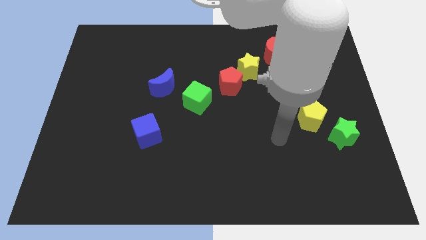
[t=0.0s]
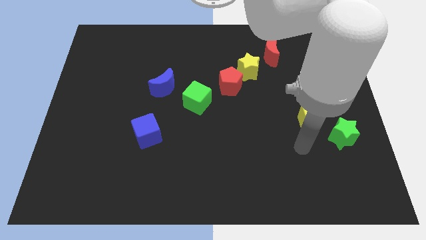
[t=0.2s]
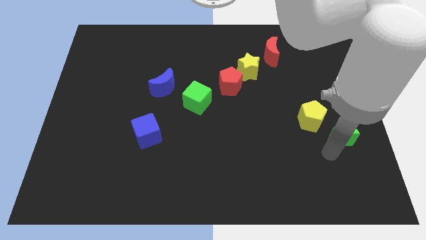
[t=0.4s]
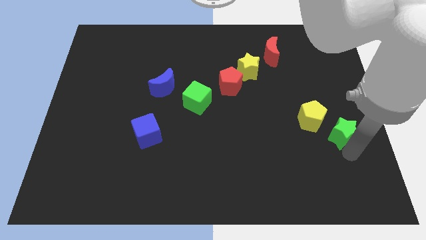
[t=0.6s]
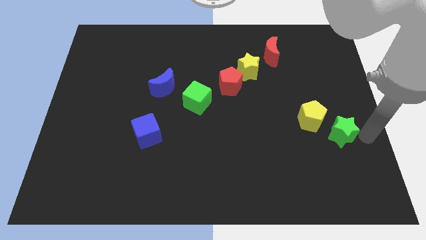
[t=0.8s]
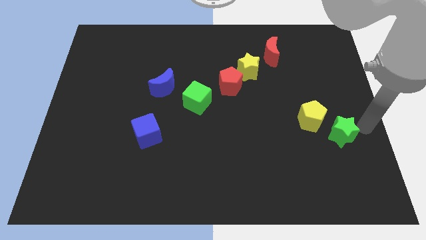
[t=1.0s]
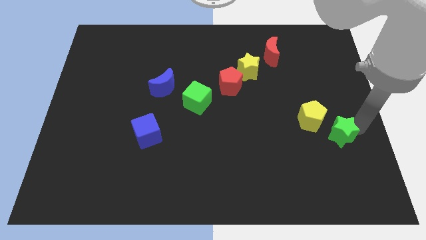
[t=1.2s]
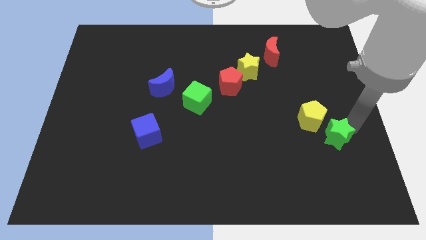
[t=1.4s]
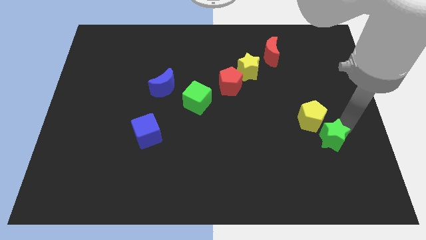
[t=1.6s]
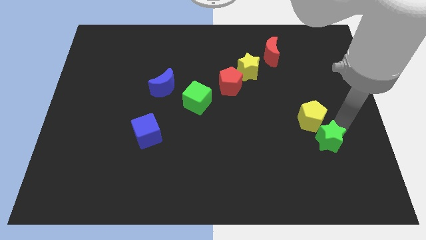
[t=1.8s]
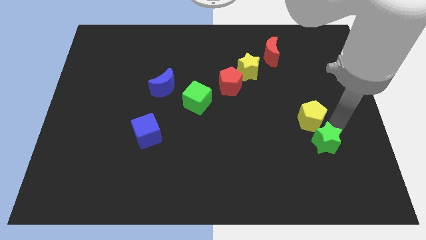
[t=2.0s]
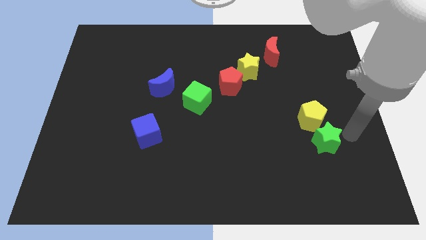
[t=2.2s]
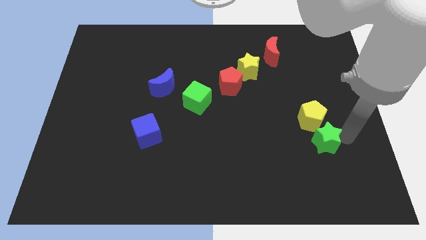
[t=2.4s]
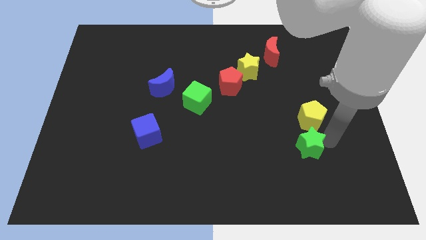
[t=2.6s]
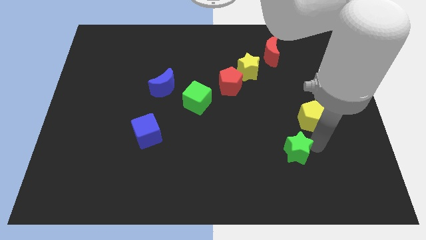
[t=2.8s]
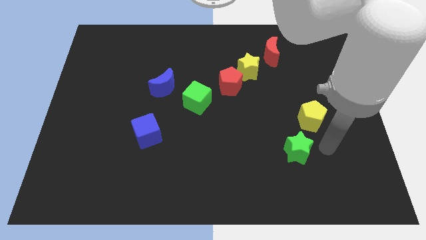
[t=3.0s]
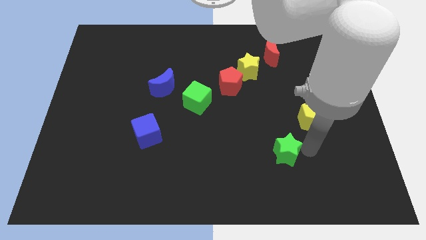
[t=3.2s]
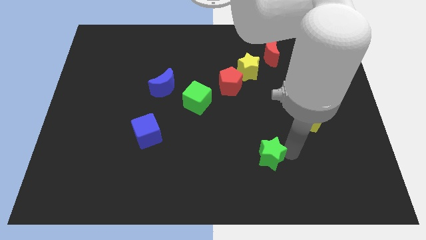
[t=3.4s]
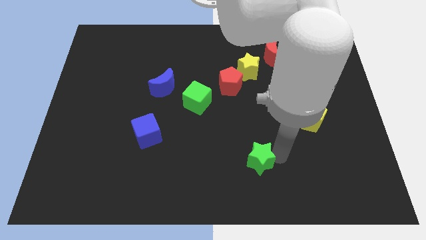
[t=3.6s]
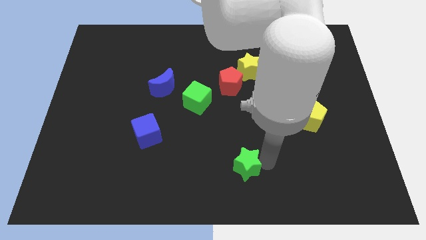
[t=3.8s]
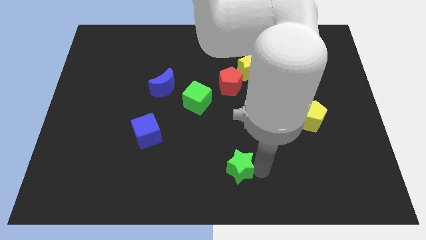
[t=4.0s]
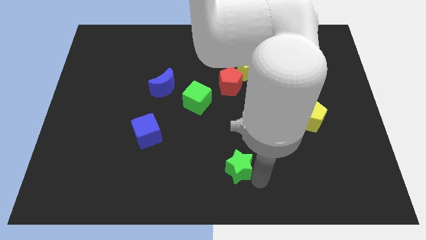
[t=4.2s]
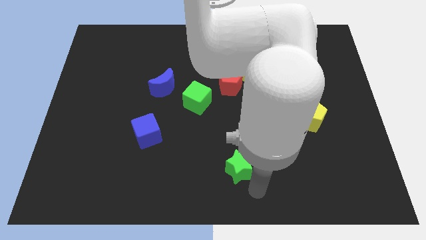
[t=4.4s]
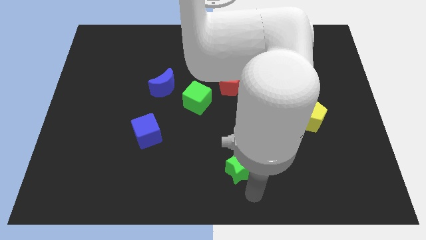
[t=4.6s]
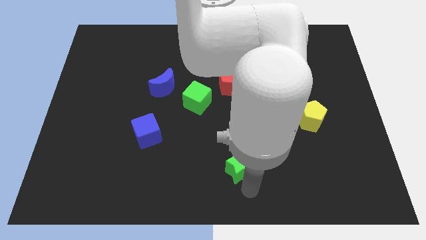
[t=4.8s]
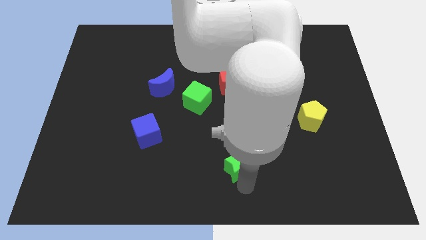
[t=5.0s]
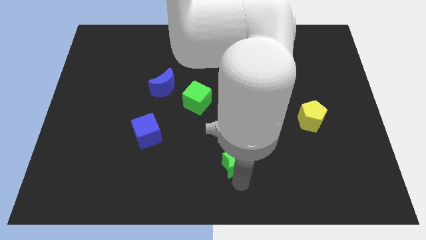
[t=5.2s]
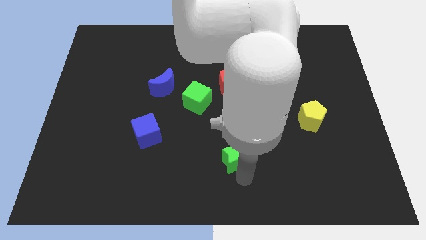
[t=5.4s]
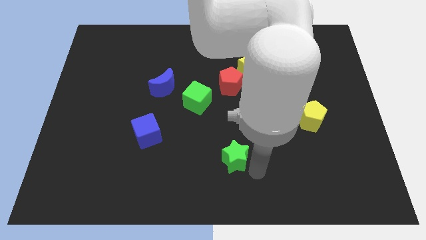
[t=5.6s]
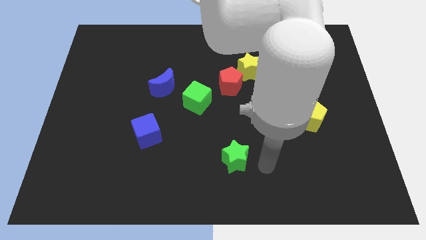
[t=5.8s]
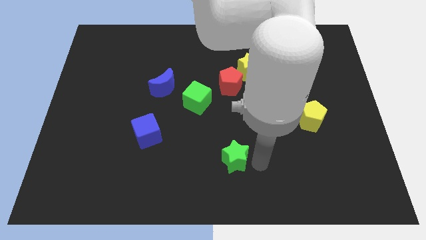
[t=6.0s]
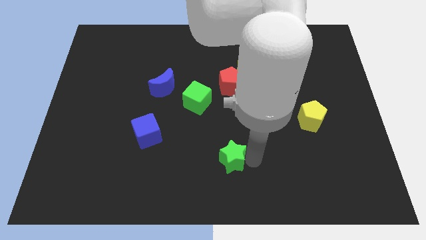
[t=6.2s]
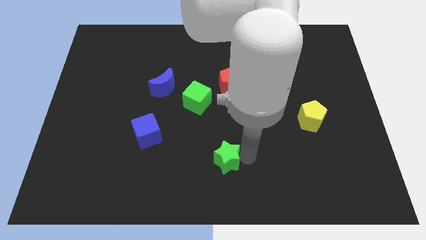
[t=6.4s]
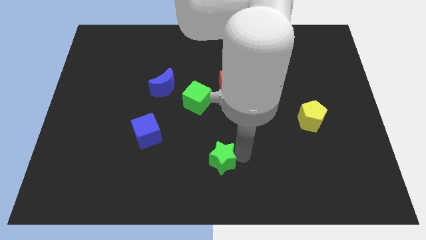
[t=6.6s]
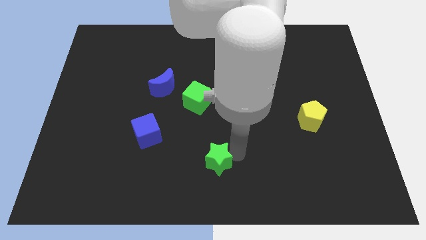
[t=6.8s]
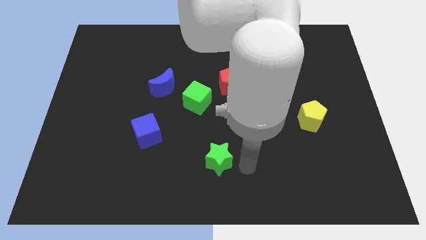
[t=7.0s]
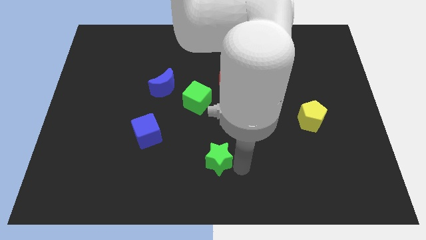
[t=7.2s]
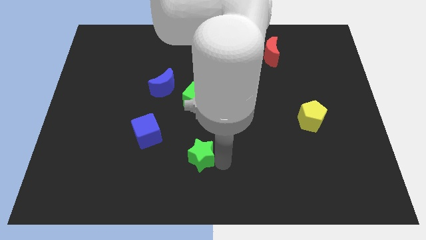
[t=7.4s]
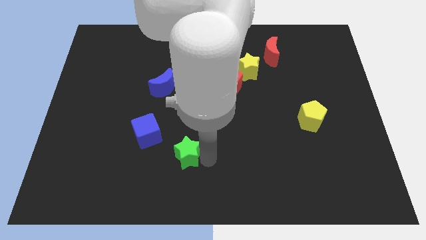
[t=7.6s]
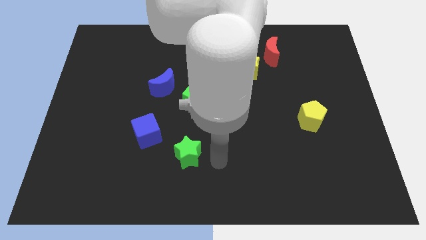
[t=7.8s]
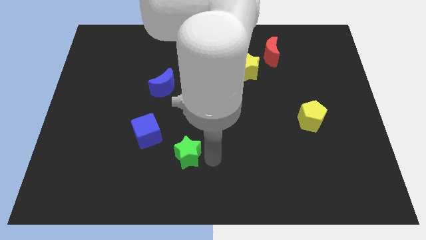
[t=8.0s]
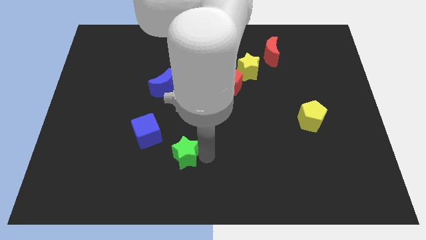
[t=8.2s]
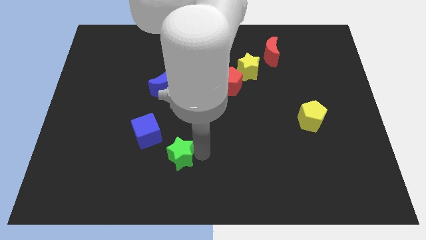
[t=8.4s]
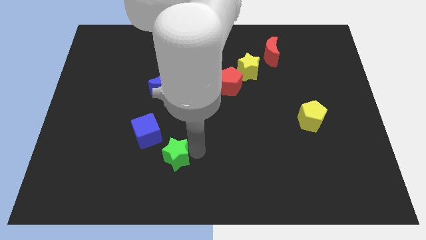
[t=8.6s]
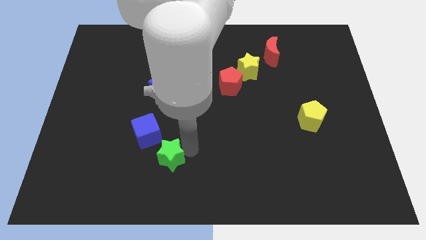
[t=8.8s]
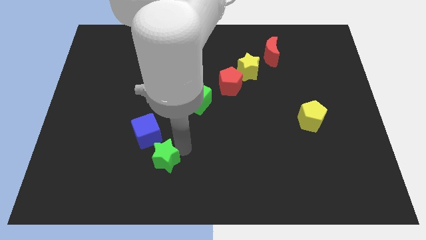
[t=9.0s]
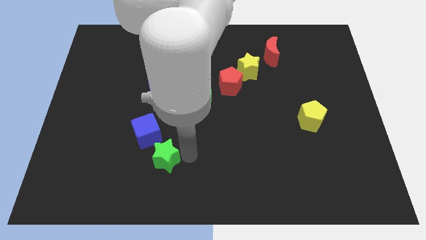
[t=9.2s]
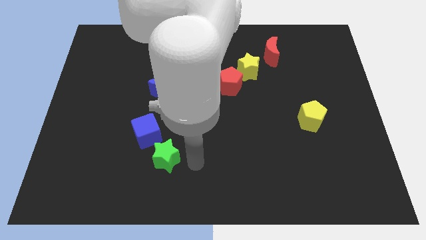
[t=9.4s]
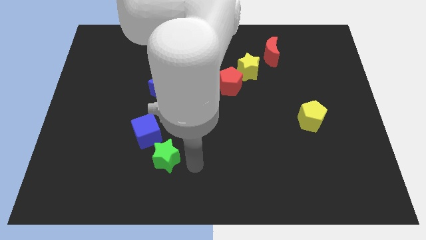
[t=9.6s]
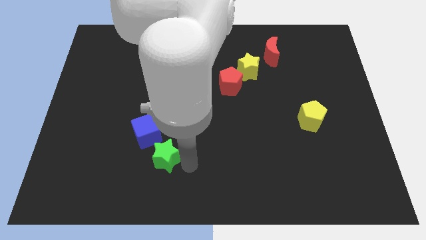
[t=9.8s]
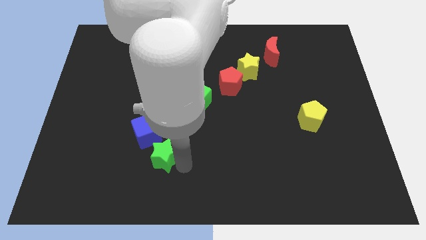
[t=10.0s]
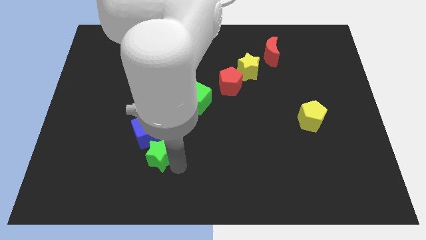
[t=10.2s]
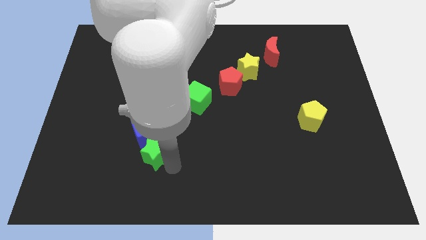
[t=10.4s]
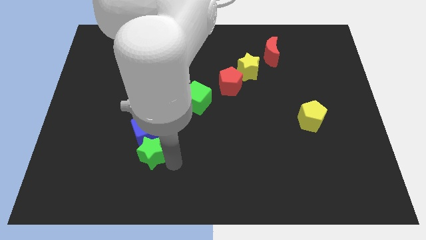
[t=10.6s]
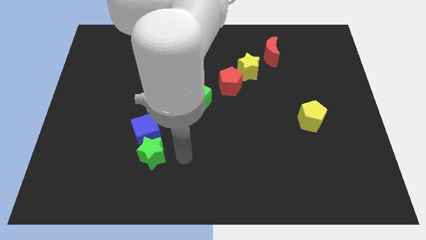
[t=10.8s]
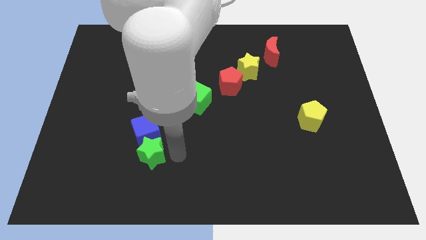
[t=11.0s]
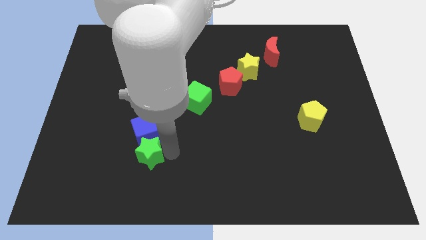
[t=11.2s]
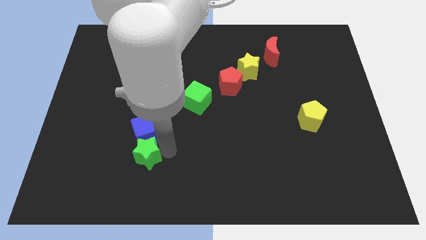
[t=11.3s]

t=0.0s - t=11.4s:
slide the green star diagonally down and to the left of the blue cube

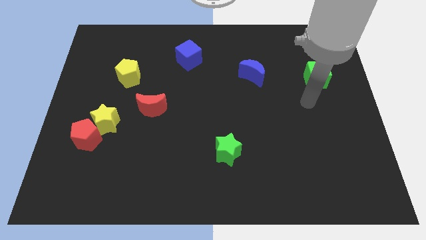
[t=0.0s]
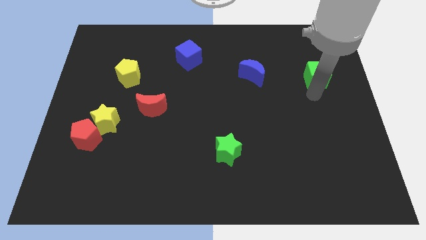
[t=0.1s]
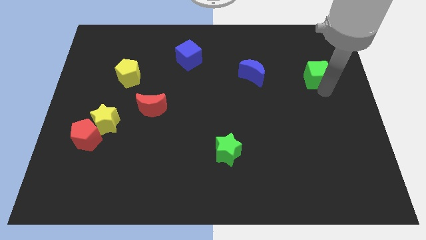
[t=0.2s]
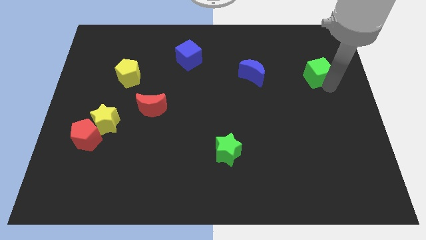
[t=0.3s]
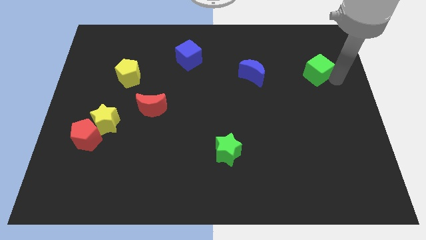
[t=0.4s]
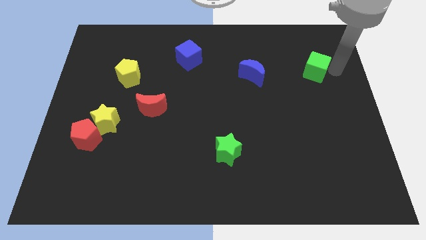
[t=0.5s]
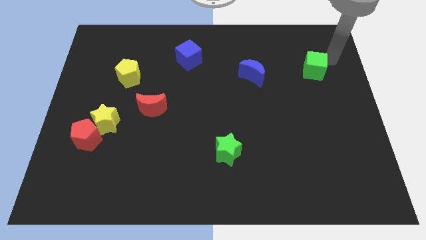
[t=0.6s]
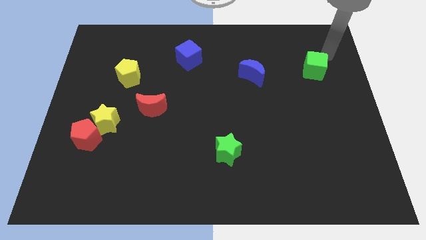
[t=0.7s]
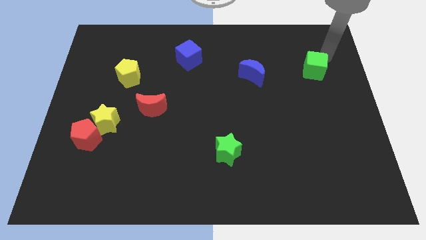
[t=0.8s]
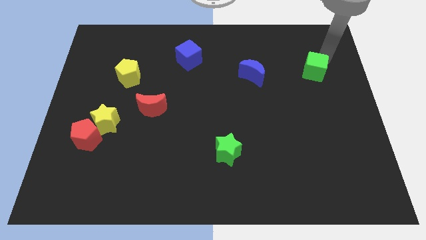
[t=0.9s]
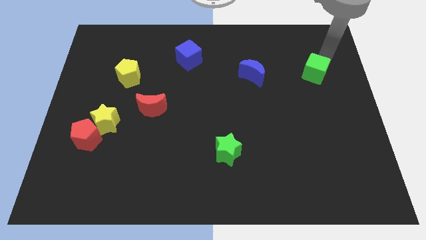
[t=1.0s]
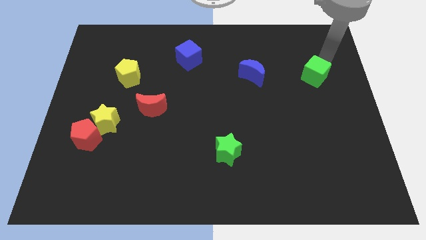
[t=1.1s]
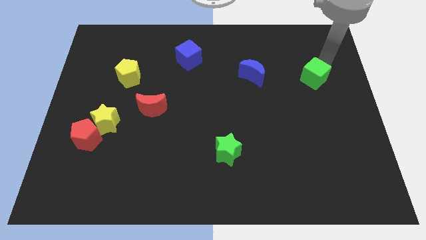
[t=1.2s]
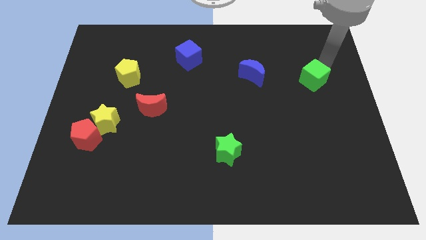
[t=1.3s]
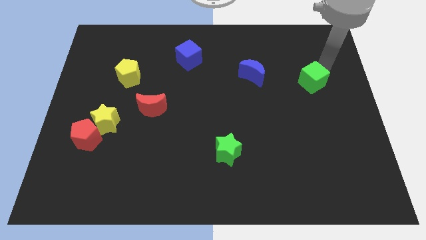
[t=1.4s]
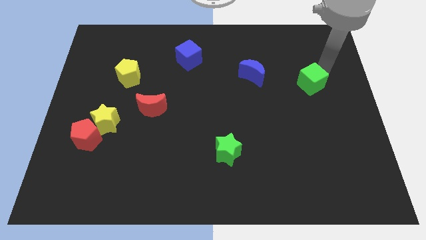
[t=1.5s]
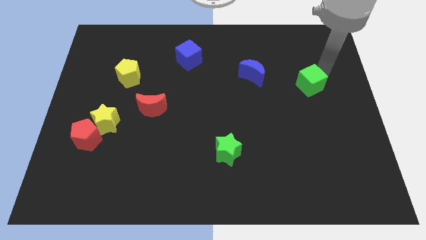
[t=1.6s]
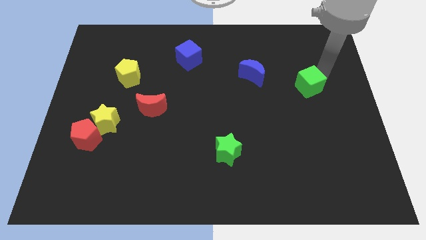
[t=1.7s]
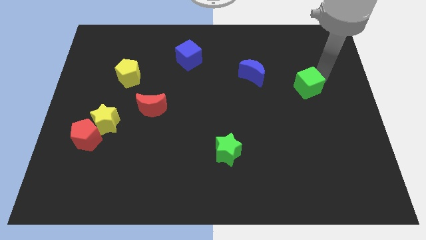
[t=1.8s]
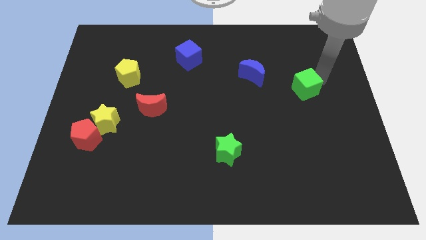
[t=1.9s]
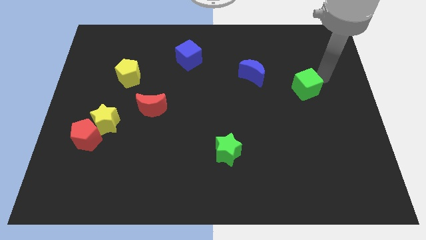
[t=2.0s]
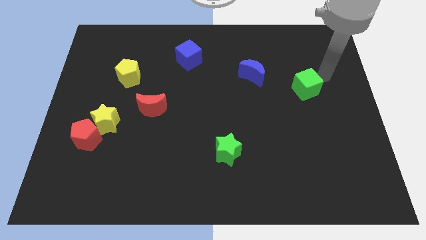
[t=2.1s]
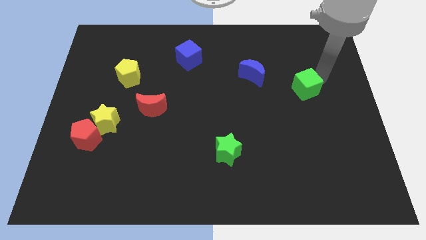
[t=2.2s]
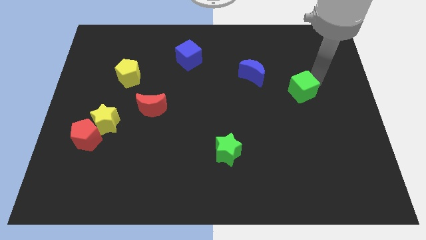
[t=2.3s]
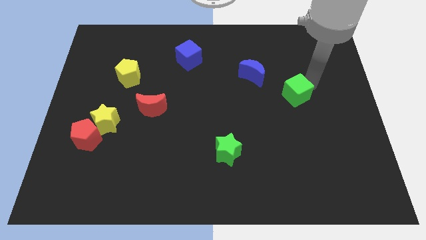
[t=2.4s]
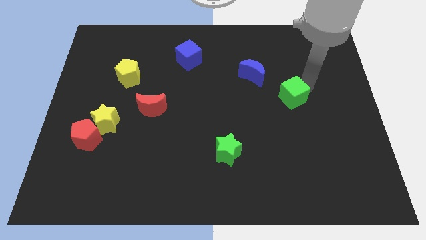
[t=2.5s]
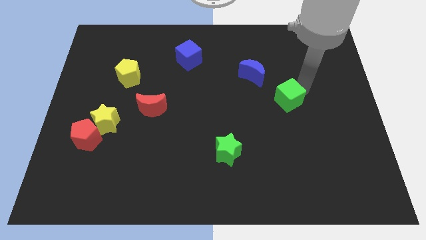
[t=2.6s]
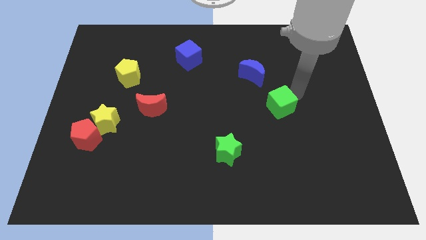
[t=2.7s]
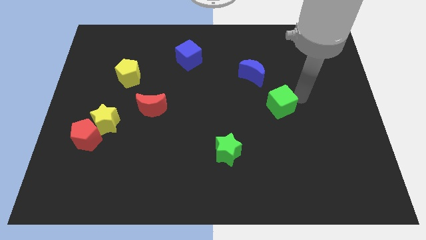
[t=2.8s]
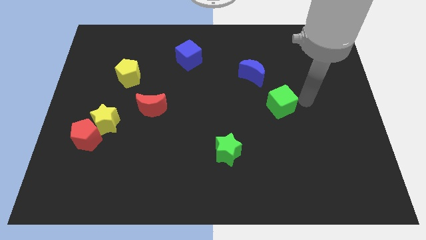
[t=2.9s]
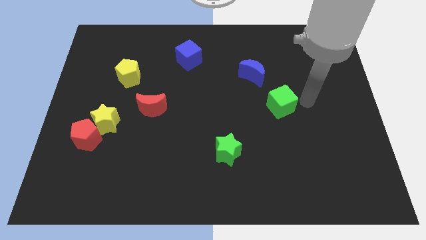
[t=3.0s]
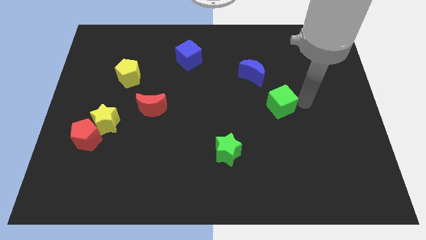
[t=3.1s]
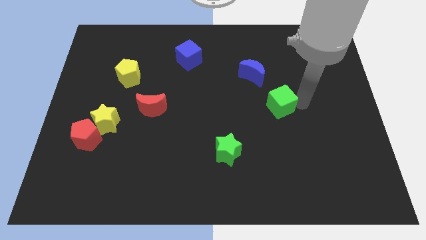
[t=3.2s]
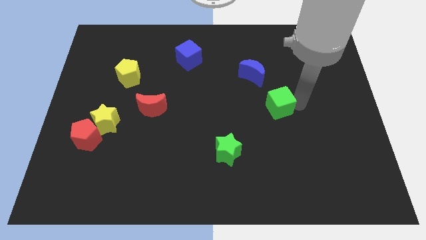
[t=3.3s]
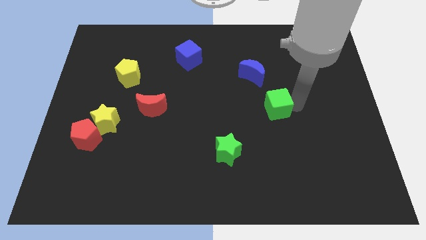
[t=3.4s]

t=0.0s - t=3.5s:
put the green cube to the bottom of the blue moon
